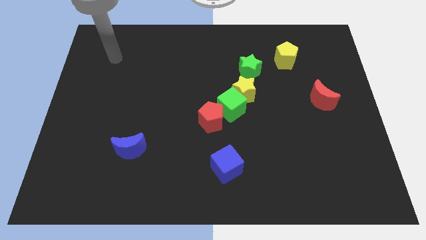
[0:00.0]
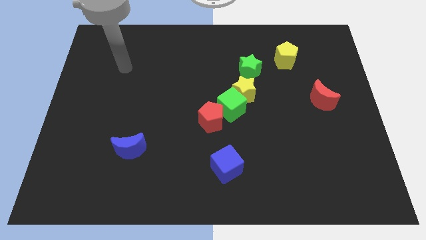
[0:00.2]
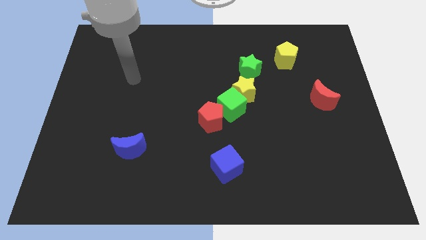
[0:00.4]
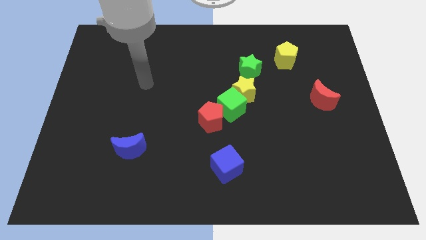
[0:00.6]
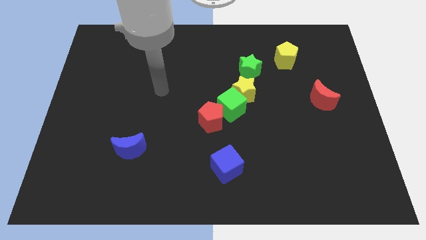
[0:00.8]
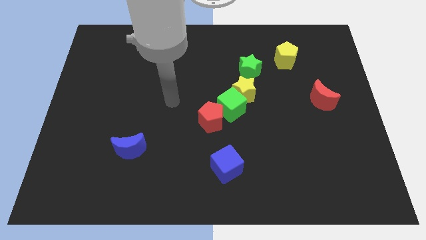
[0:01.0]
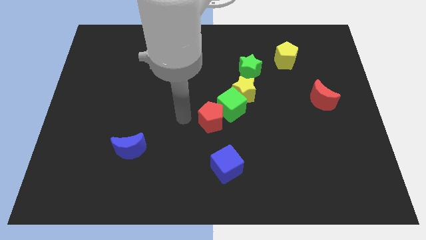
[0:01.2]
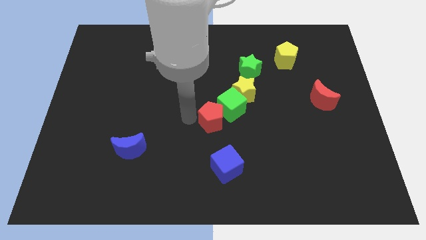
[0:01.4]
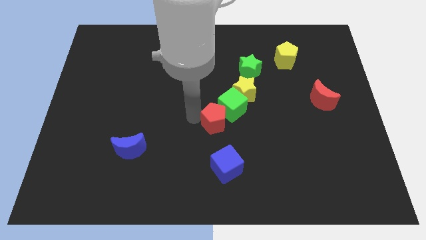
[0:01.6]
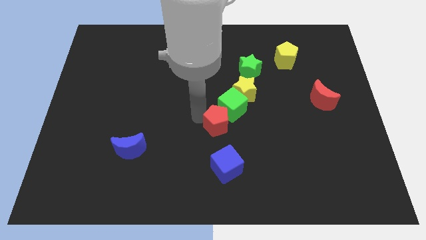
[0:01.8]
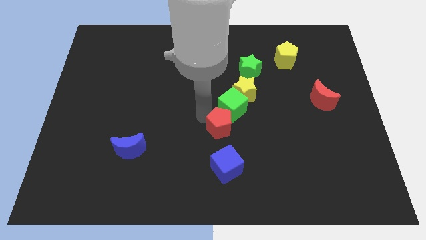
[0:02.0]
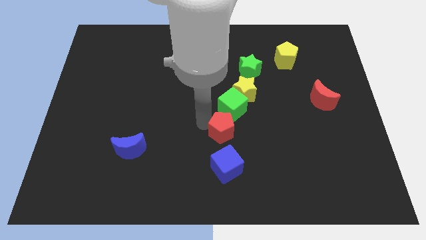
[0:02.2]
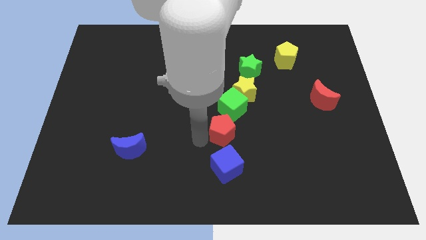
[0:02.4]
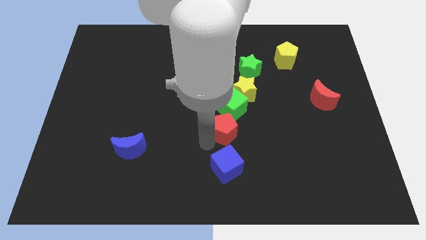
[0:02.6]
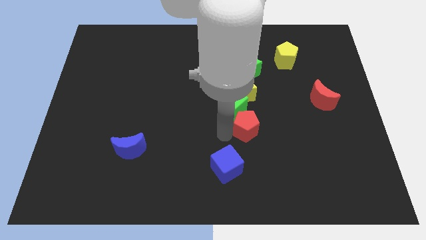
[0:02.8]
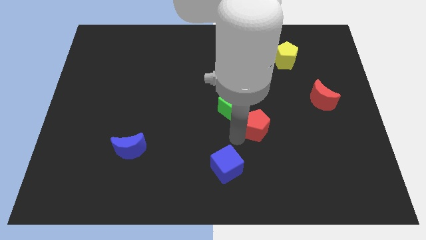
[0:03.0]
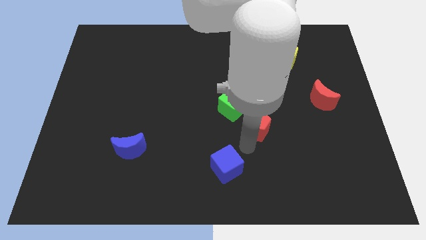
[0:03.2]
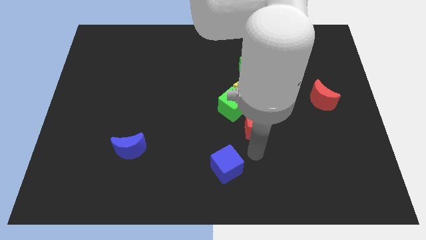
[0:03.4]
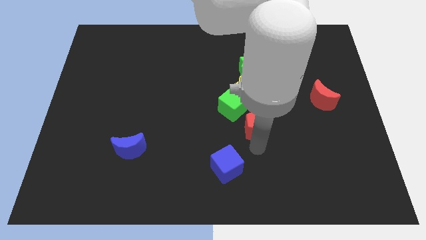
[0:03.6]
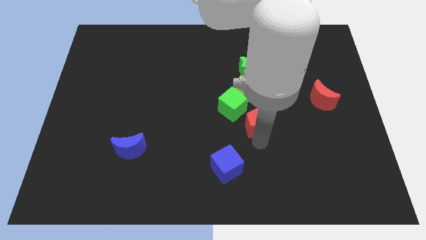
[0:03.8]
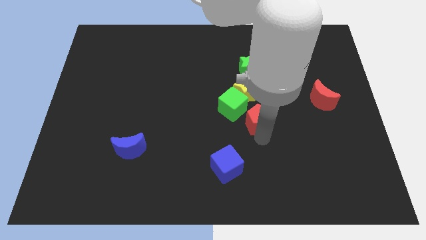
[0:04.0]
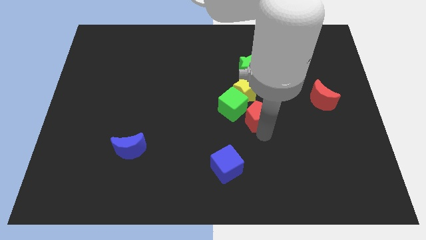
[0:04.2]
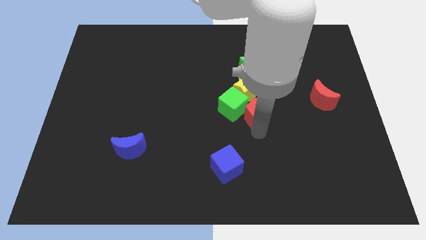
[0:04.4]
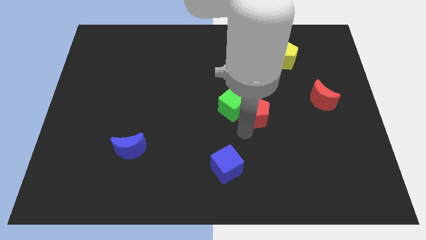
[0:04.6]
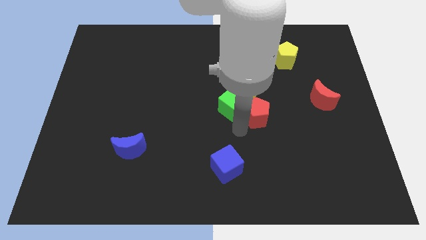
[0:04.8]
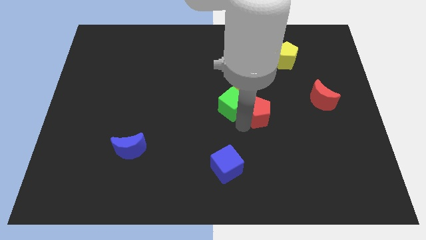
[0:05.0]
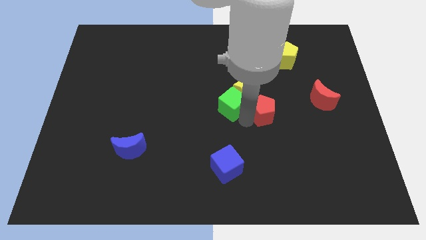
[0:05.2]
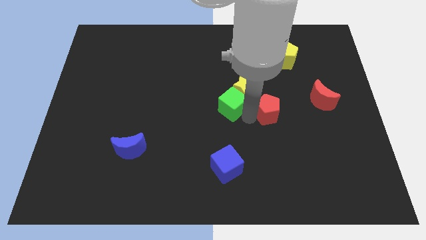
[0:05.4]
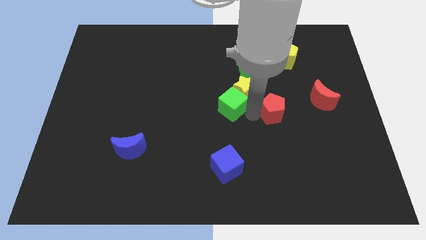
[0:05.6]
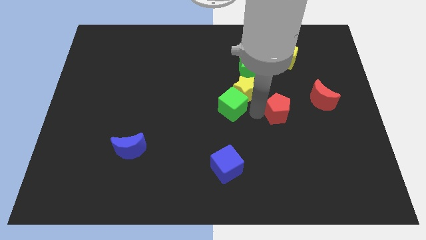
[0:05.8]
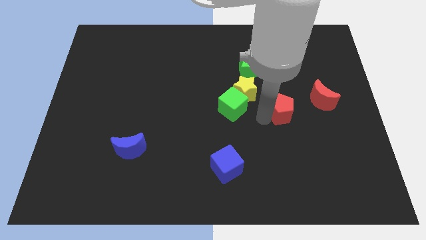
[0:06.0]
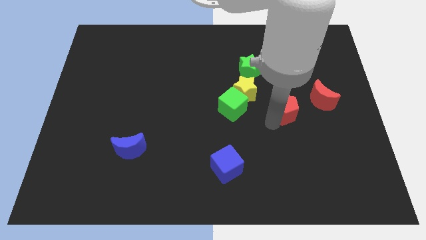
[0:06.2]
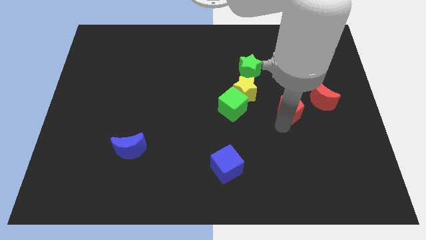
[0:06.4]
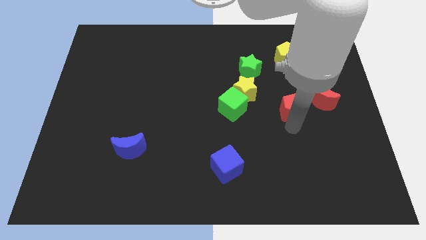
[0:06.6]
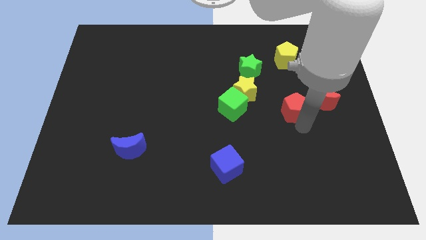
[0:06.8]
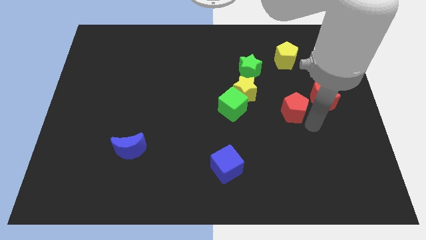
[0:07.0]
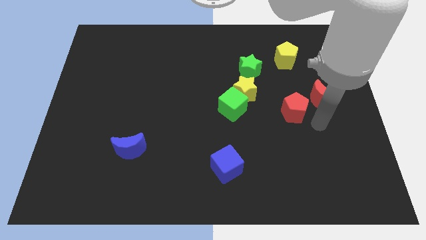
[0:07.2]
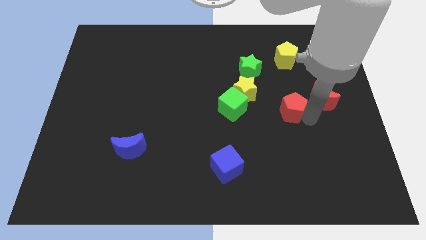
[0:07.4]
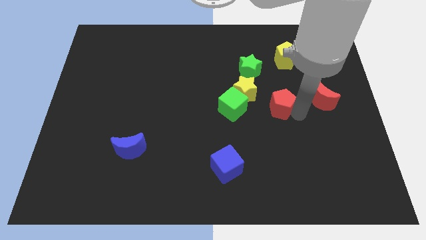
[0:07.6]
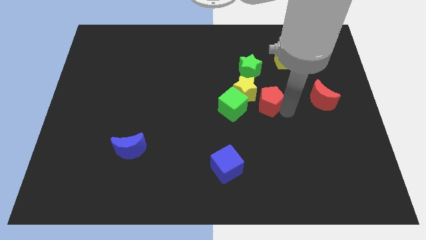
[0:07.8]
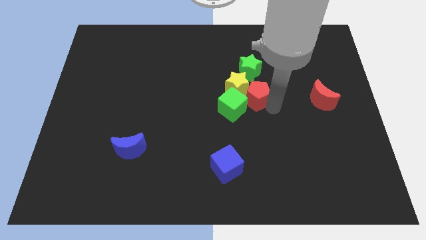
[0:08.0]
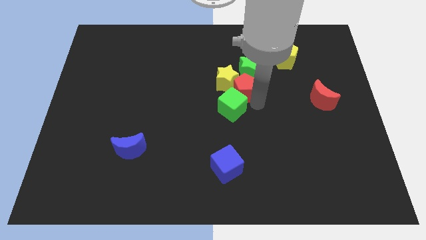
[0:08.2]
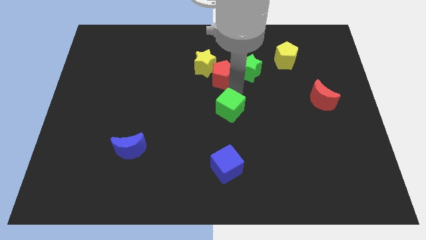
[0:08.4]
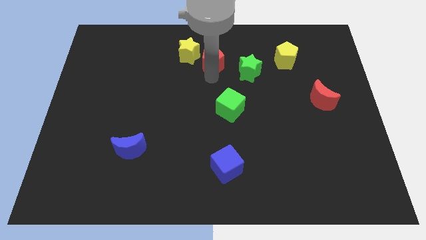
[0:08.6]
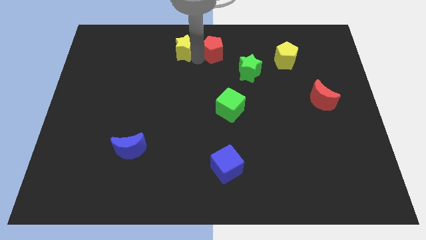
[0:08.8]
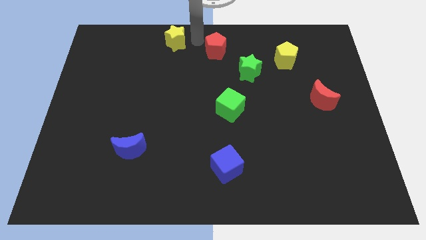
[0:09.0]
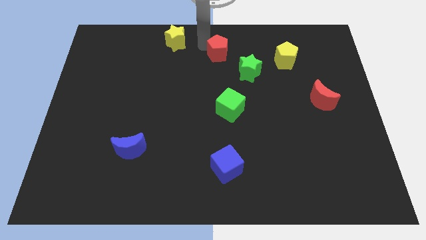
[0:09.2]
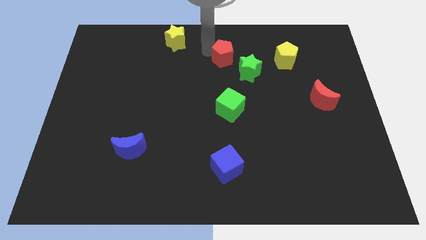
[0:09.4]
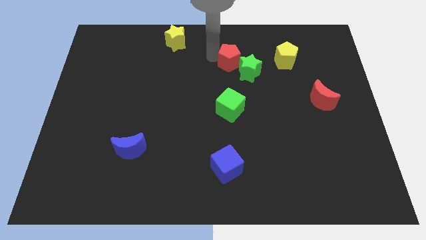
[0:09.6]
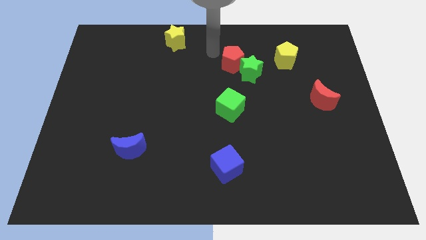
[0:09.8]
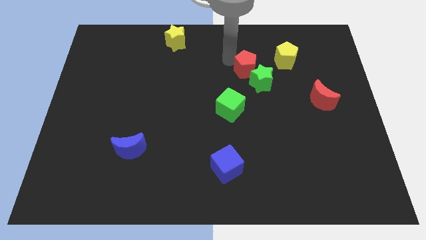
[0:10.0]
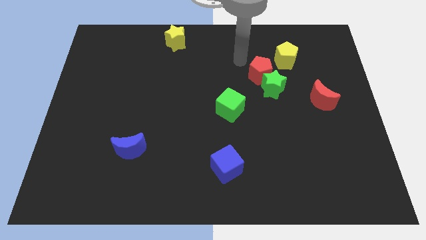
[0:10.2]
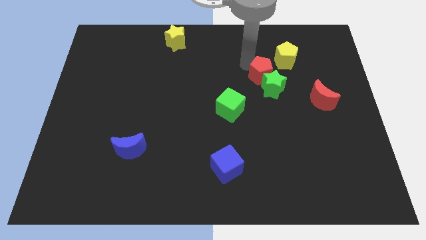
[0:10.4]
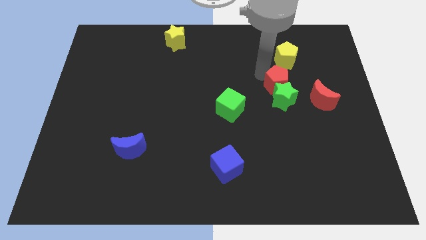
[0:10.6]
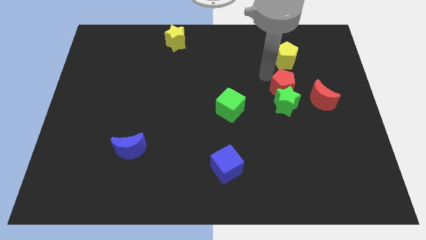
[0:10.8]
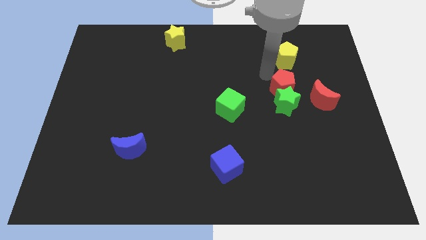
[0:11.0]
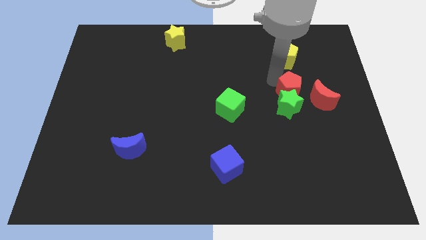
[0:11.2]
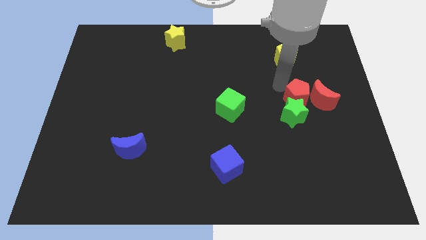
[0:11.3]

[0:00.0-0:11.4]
push the red pentagon to the red moon

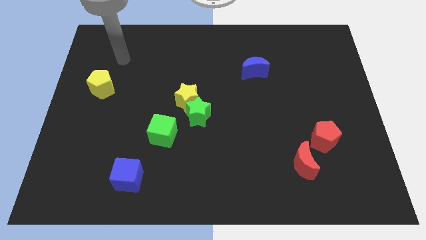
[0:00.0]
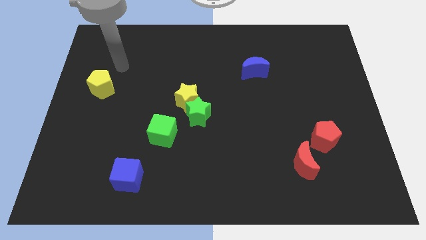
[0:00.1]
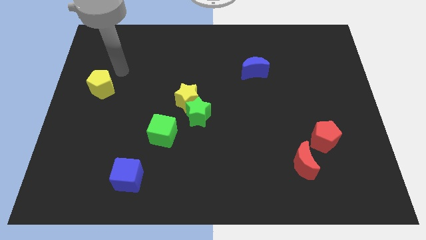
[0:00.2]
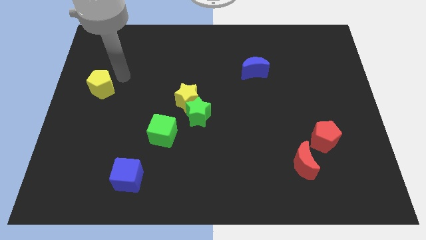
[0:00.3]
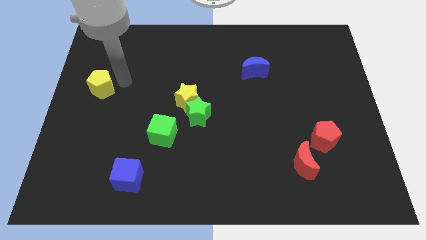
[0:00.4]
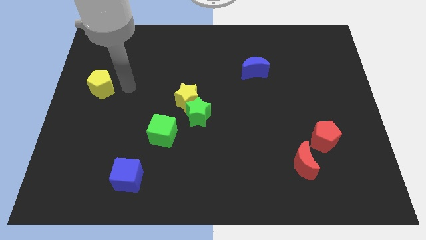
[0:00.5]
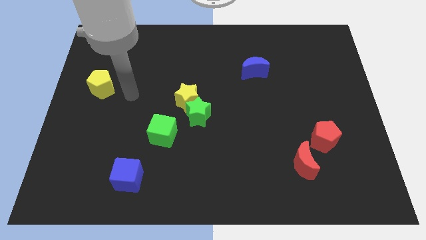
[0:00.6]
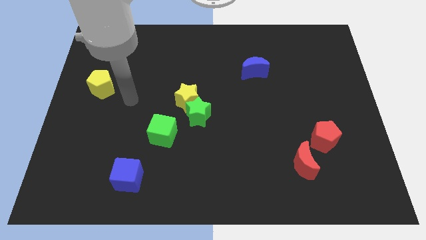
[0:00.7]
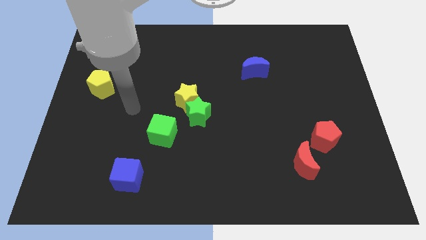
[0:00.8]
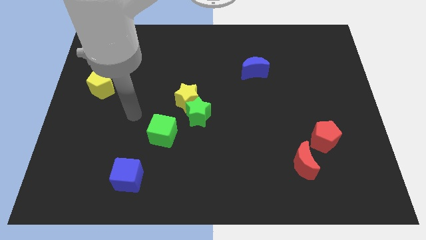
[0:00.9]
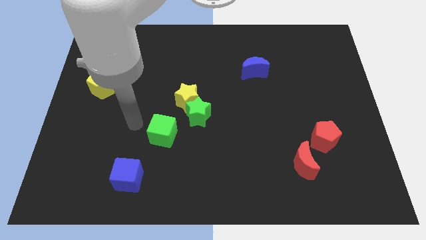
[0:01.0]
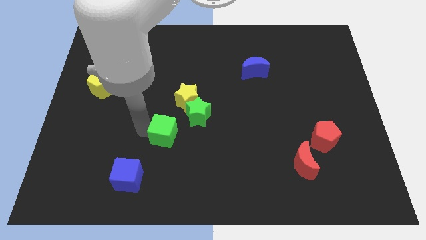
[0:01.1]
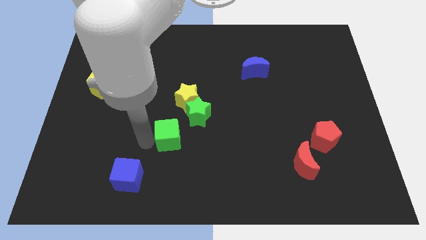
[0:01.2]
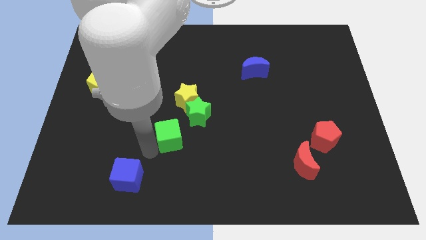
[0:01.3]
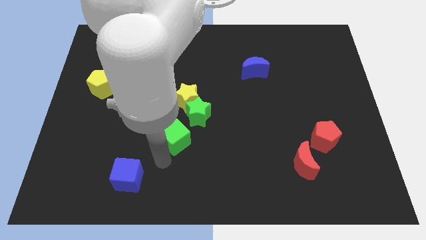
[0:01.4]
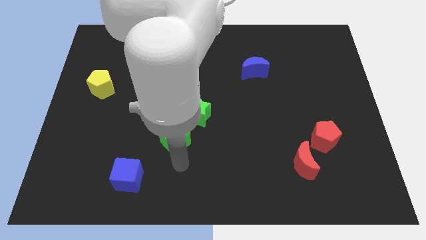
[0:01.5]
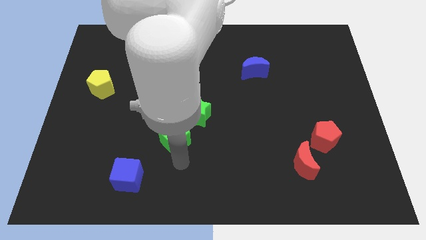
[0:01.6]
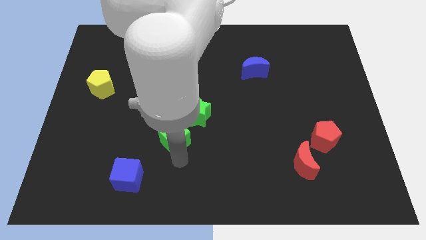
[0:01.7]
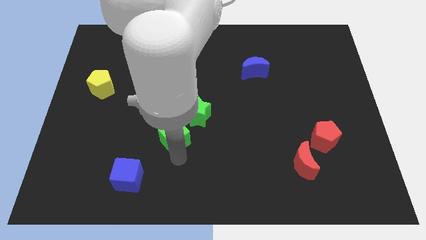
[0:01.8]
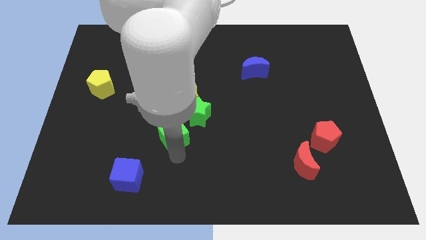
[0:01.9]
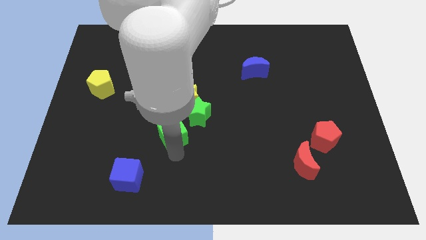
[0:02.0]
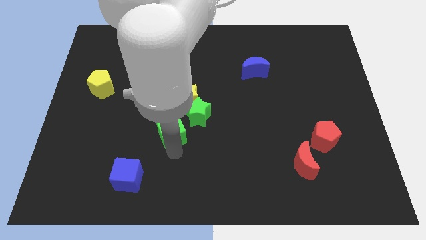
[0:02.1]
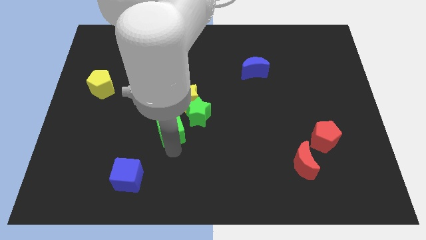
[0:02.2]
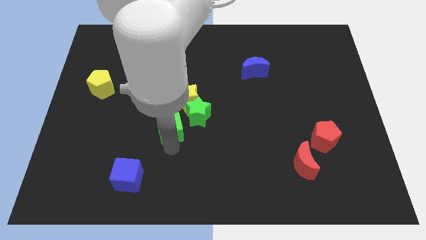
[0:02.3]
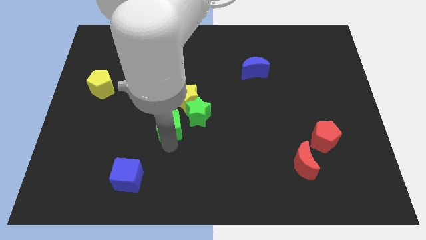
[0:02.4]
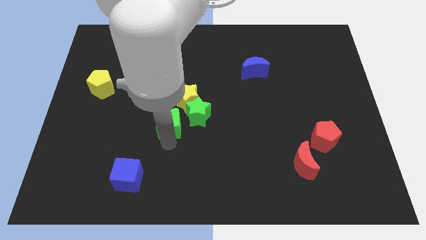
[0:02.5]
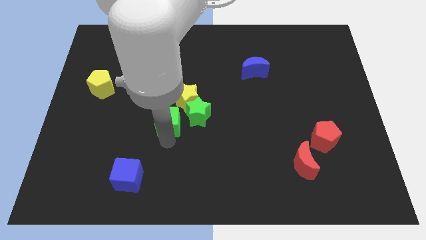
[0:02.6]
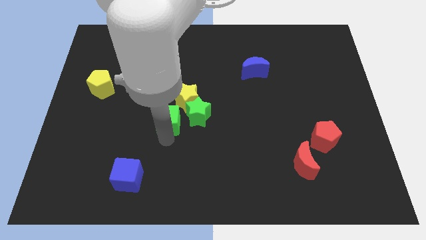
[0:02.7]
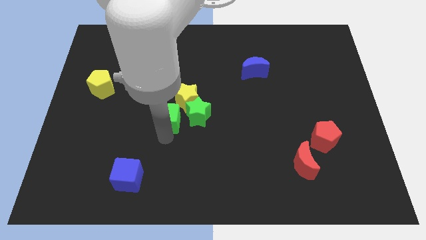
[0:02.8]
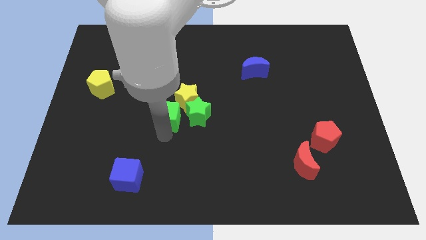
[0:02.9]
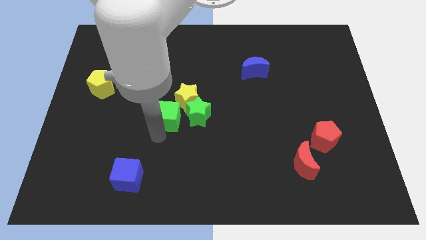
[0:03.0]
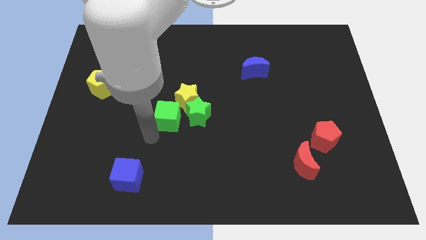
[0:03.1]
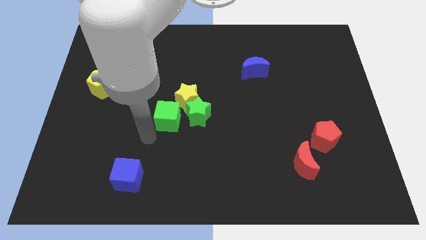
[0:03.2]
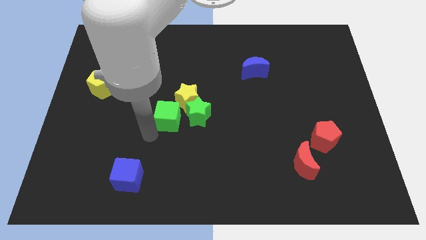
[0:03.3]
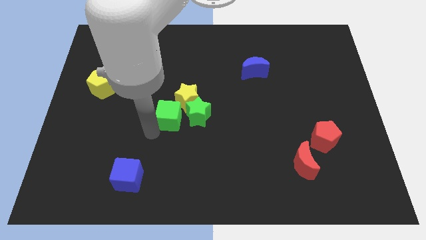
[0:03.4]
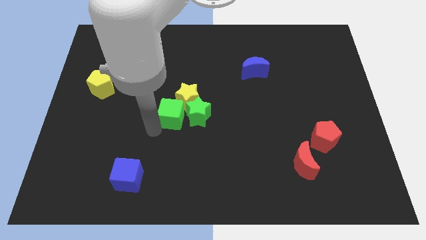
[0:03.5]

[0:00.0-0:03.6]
slide the green cube next to the yellow star
